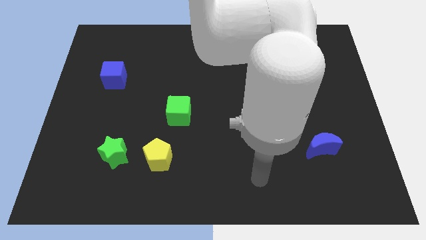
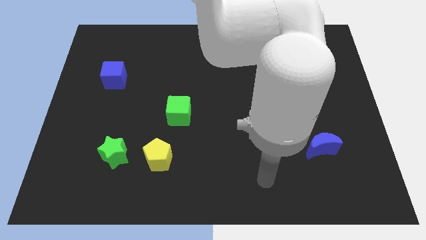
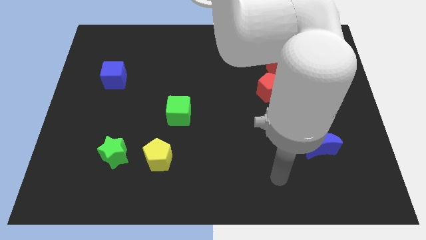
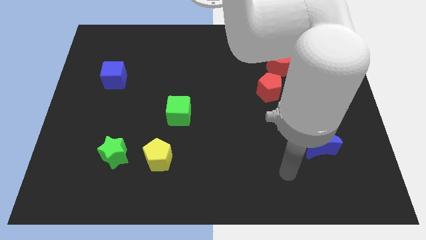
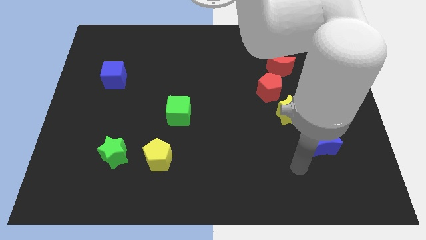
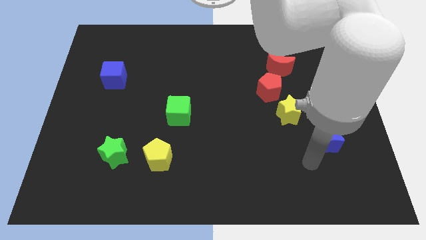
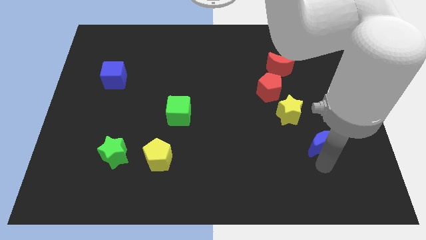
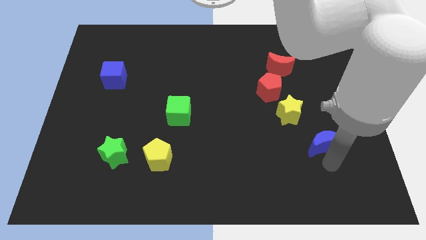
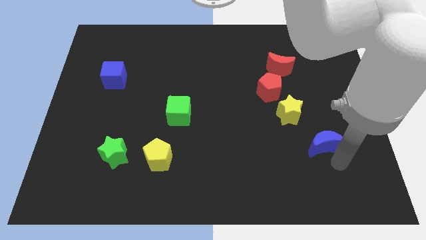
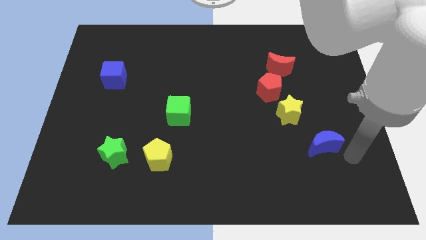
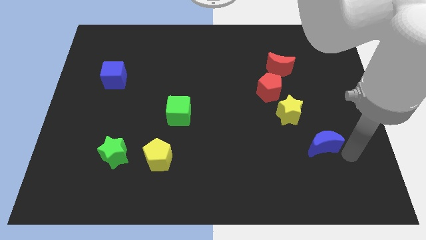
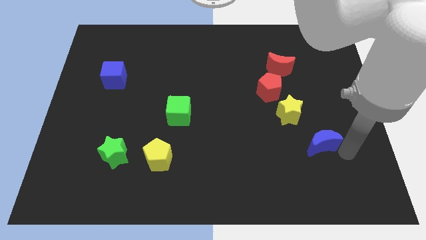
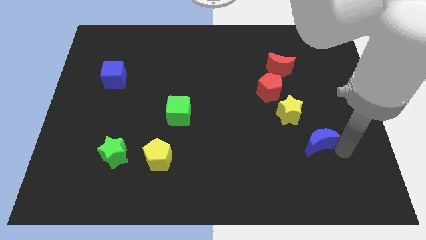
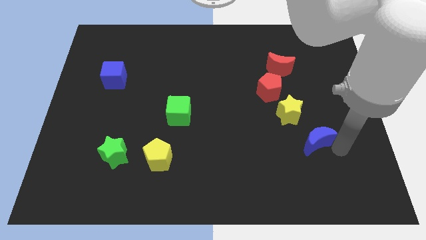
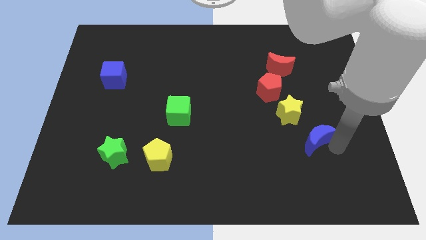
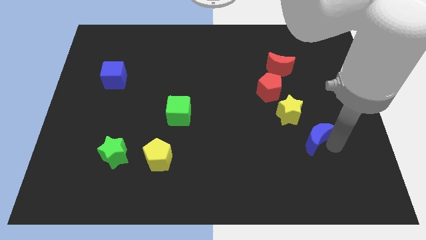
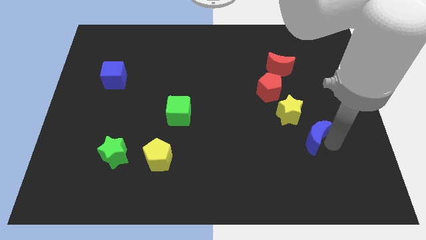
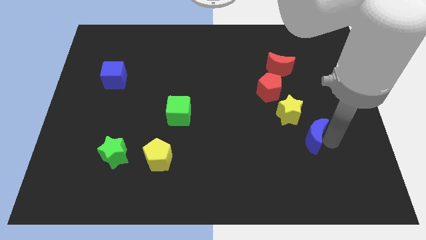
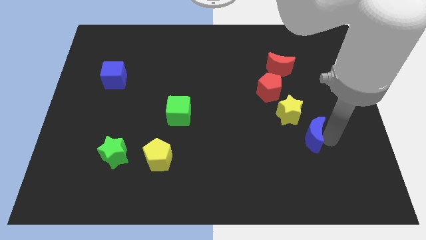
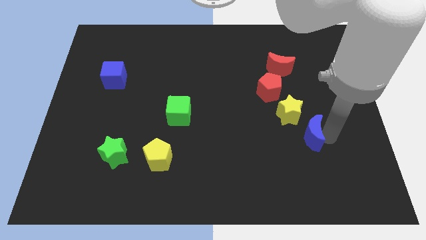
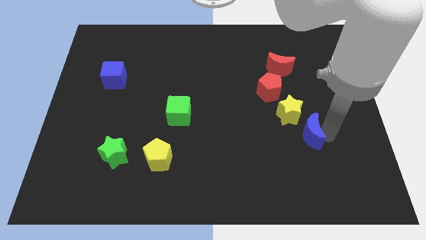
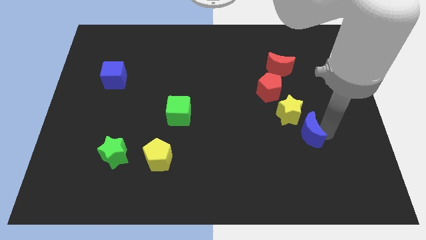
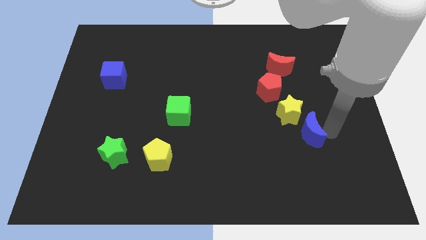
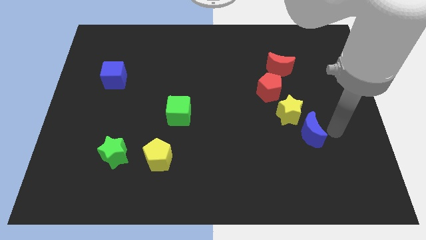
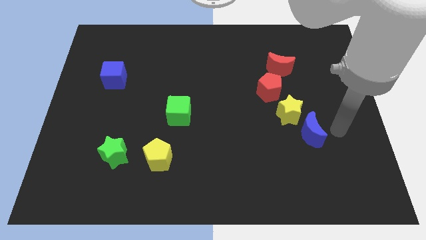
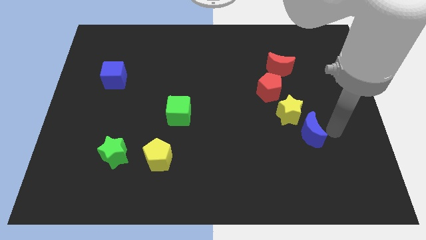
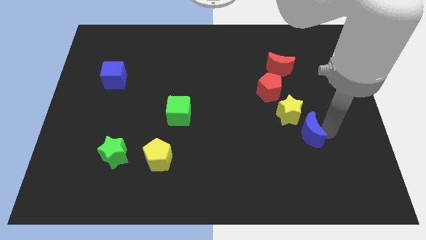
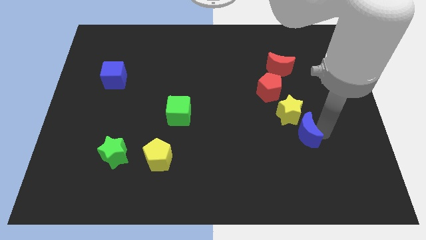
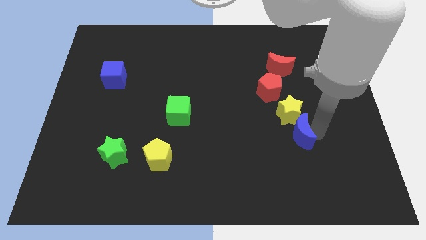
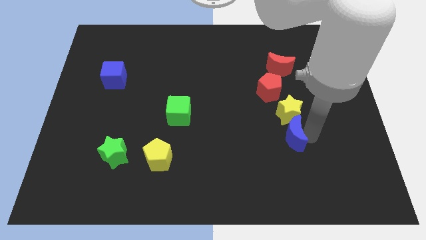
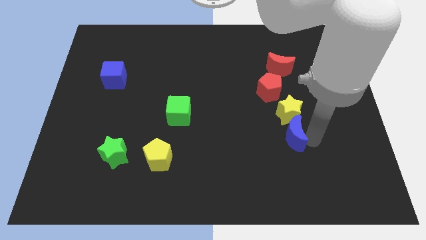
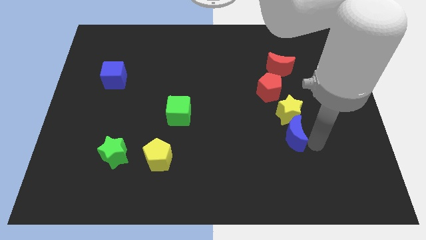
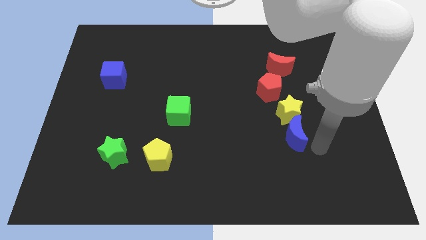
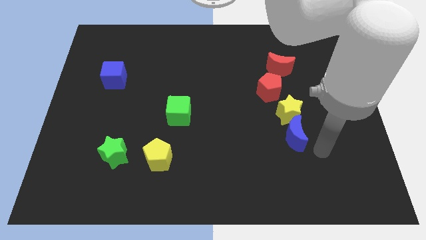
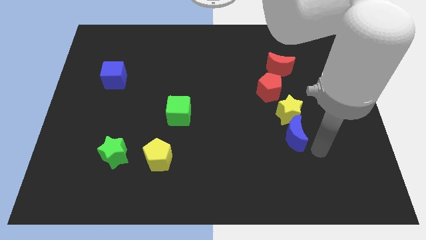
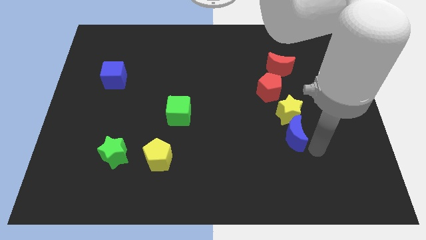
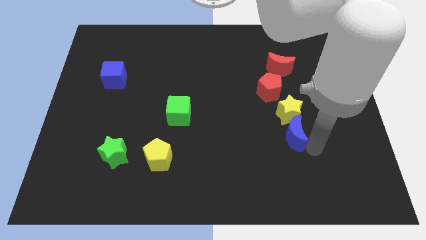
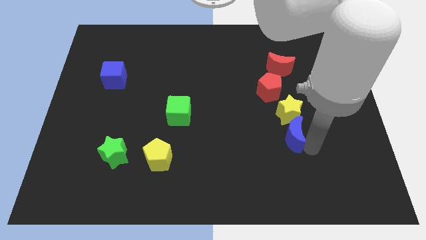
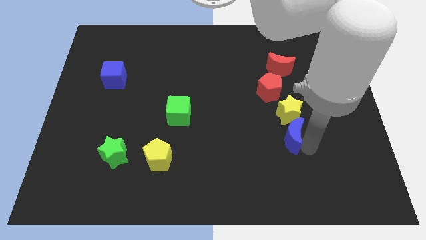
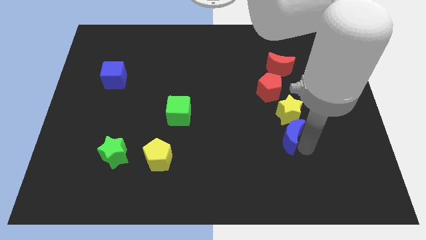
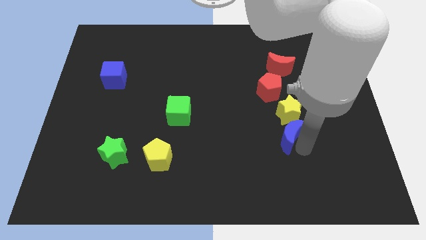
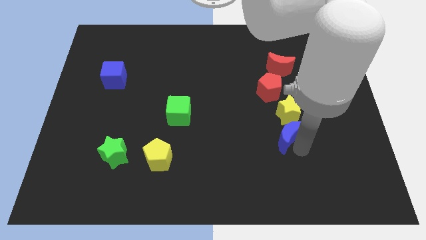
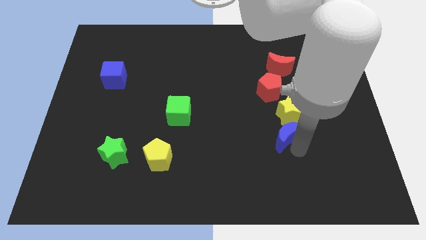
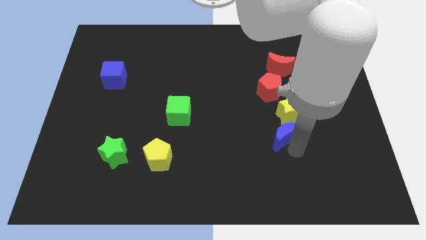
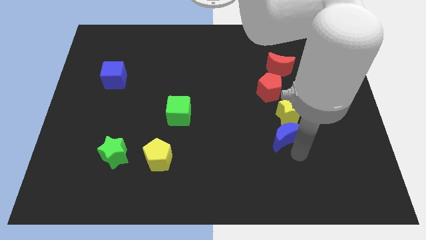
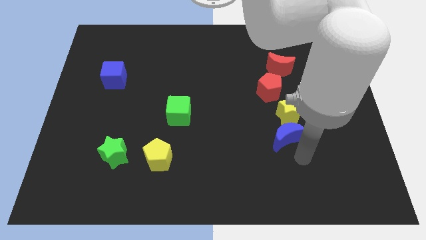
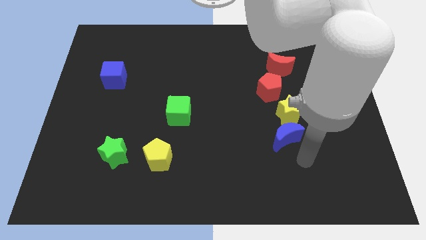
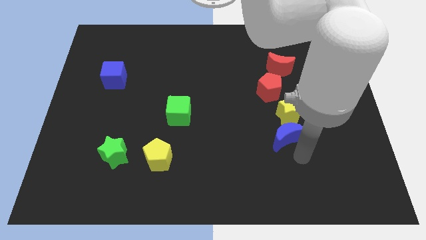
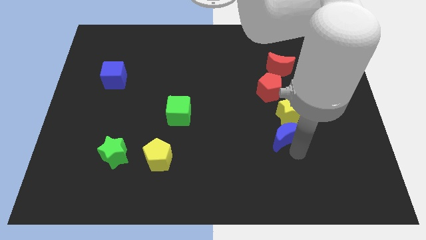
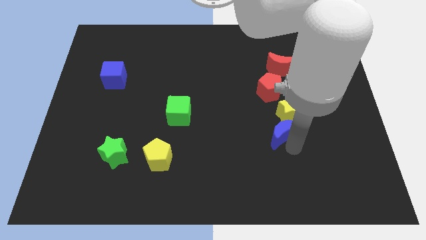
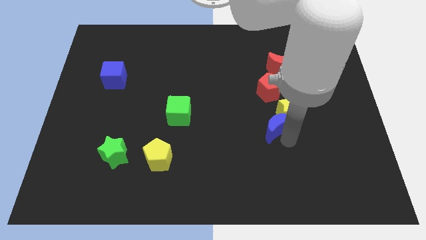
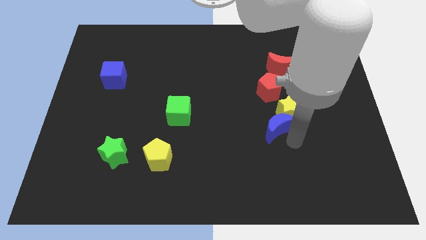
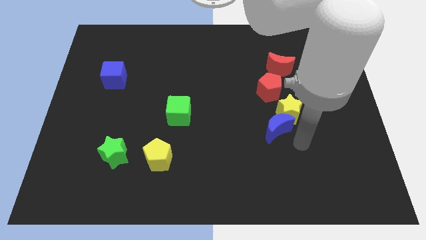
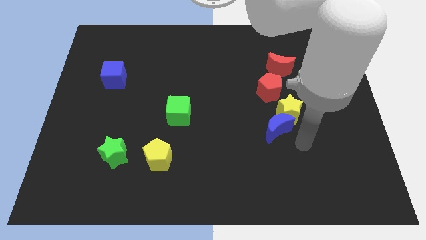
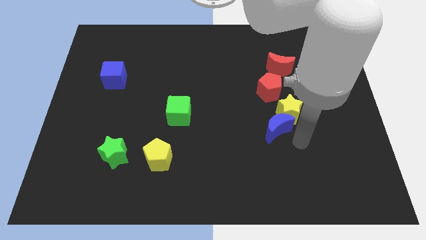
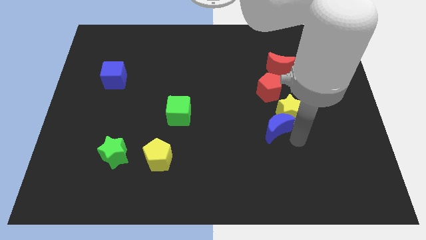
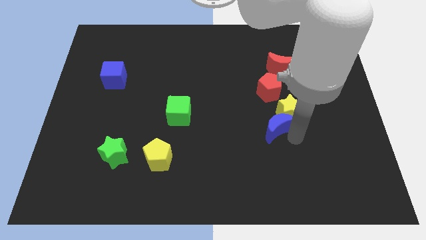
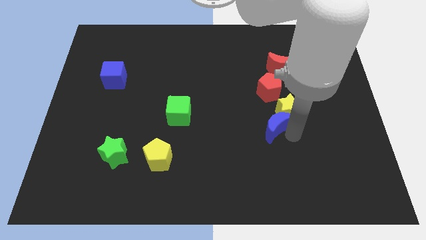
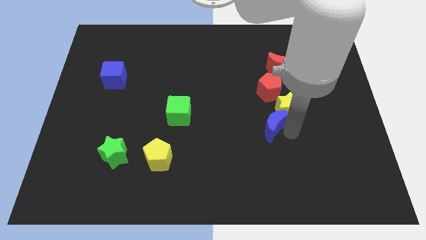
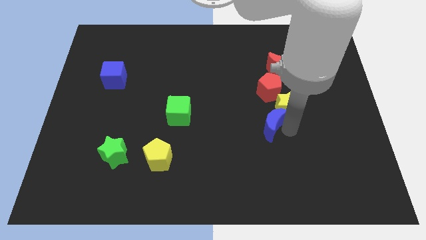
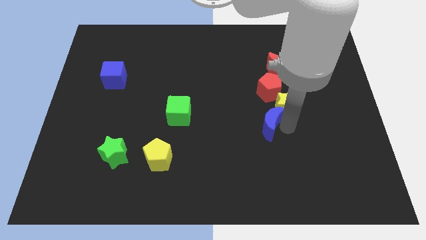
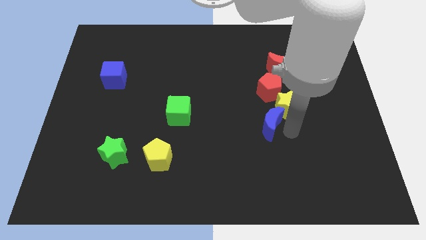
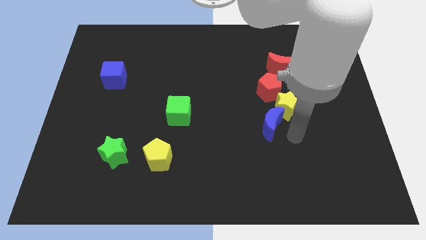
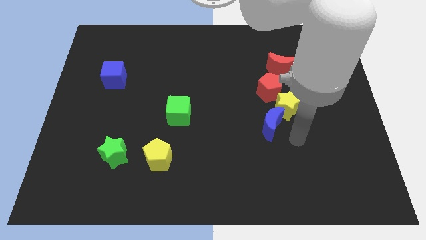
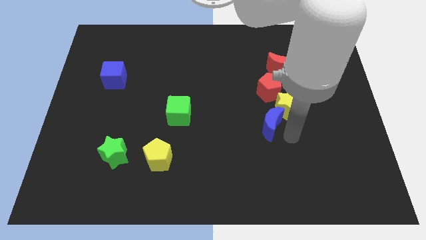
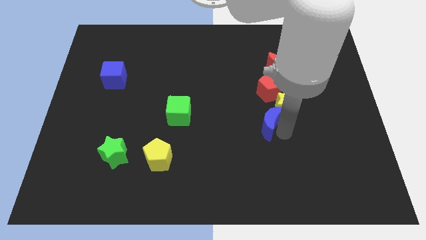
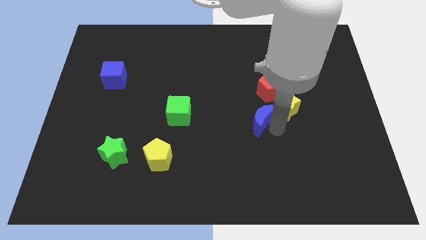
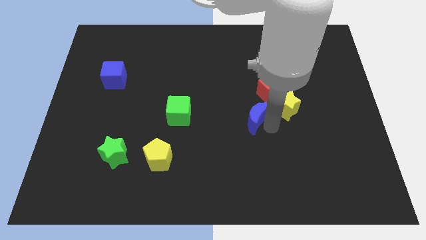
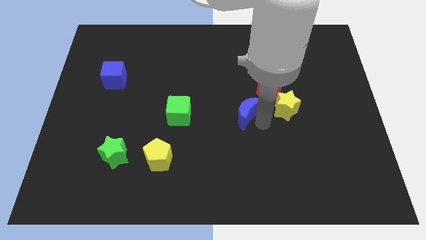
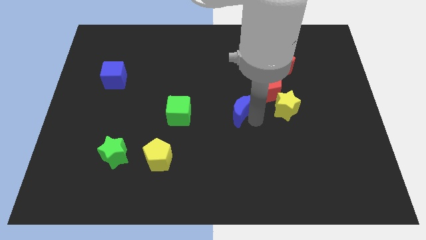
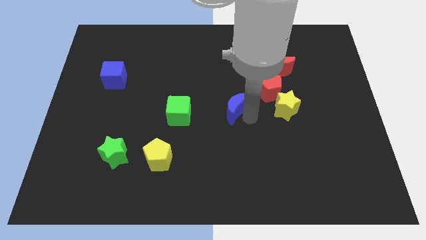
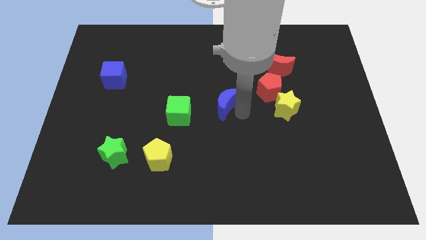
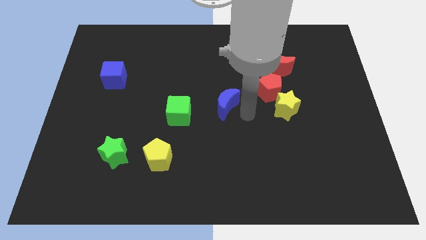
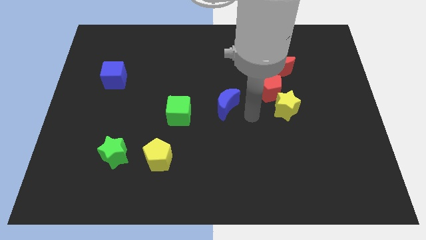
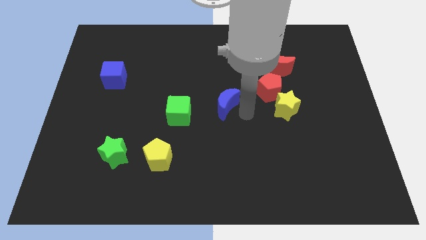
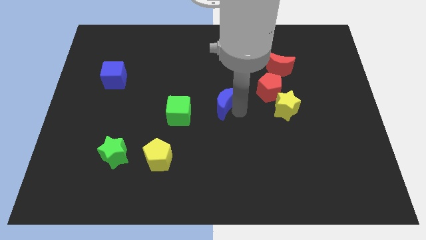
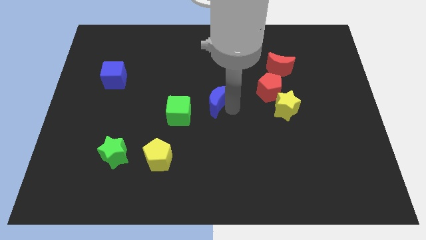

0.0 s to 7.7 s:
move the blue moon diagonally up and to the right of the green cube
